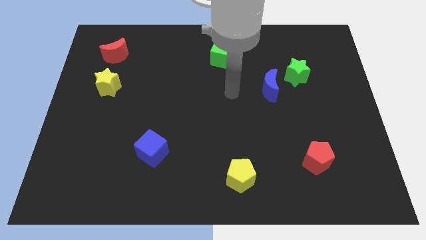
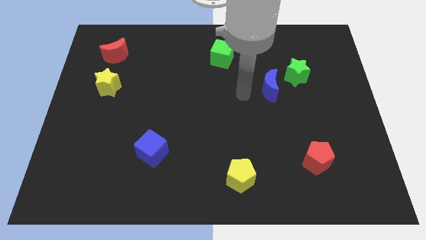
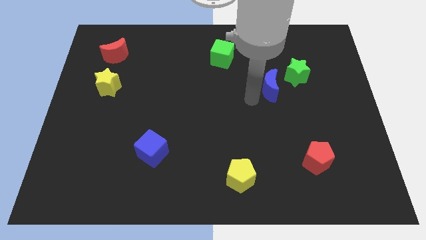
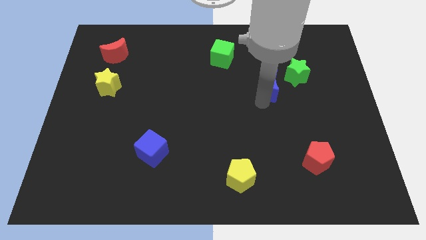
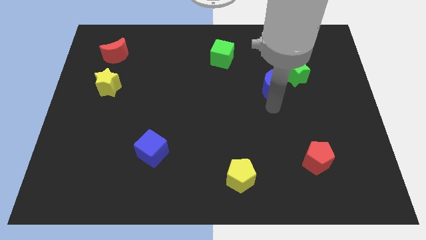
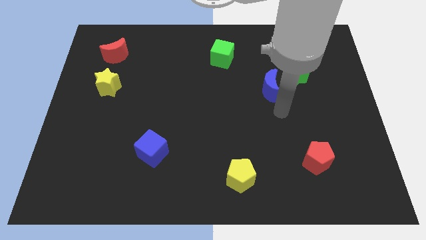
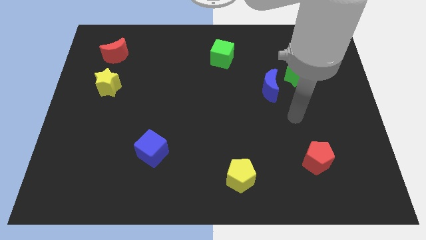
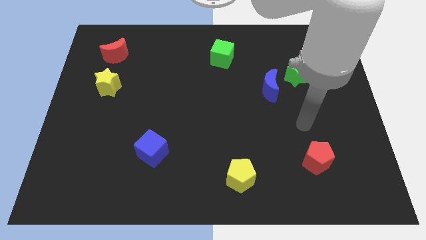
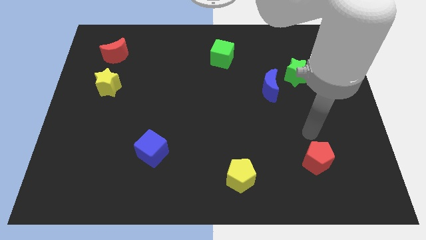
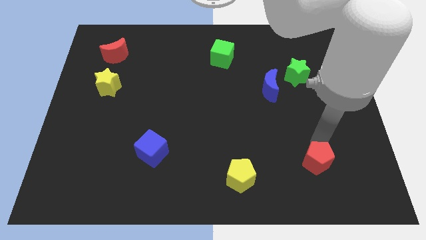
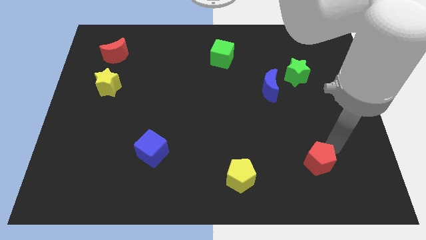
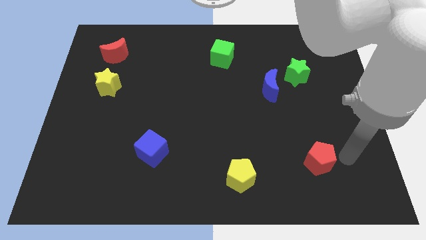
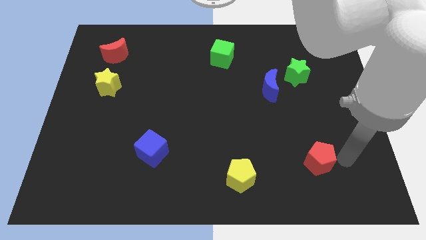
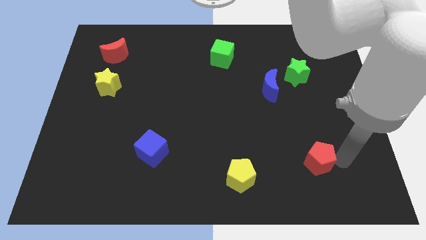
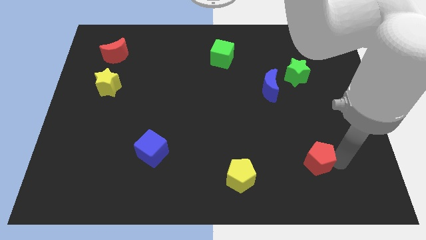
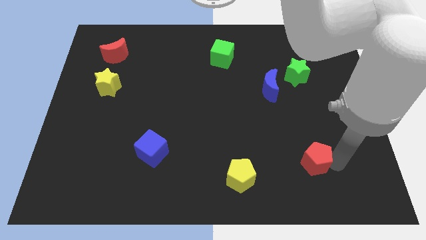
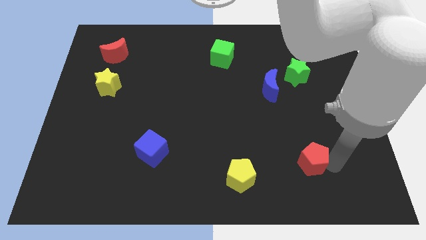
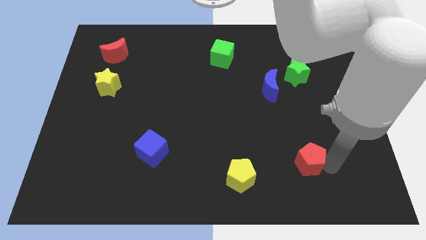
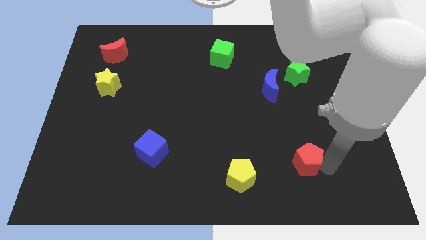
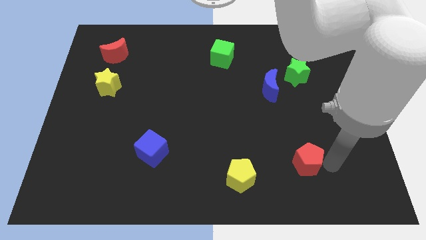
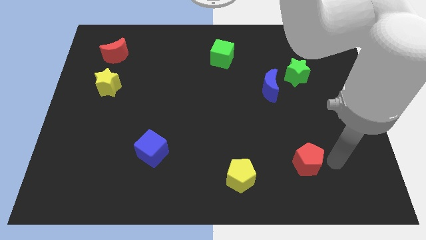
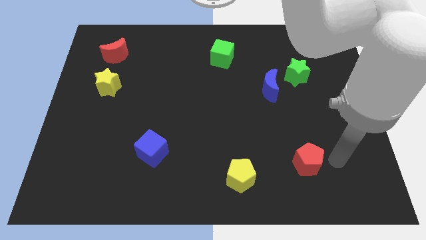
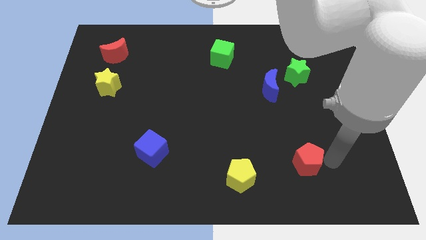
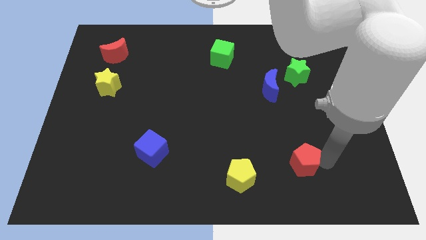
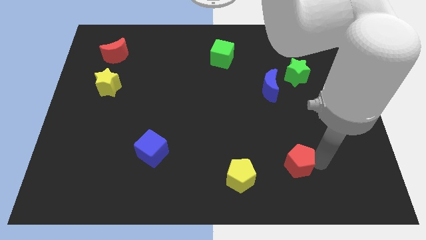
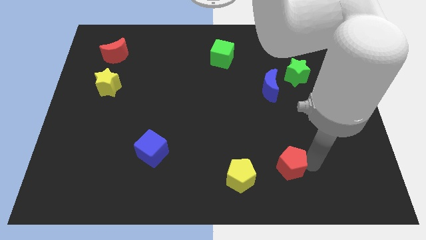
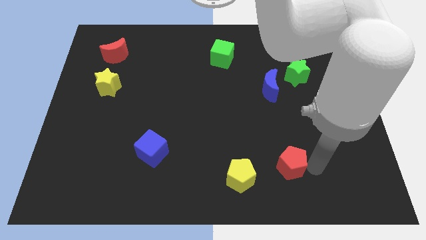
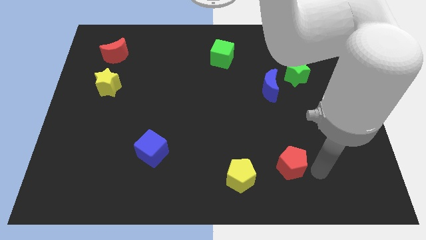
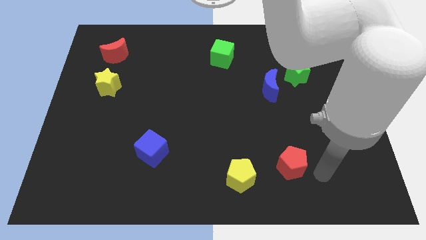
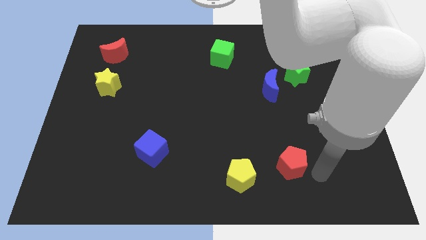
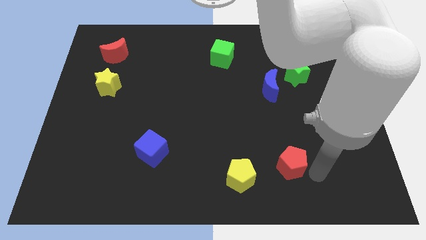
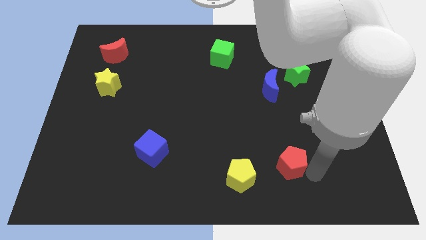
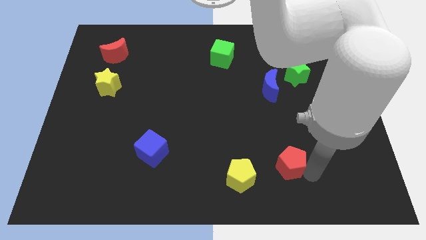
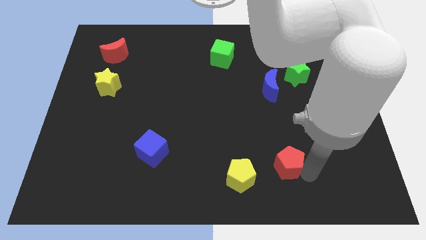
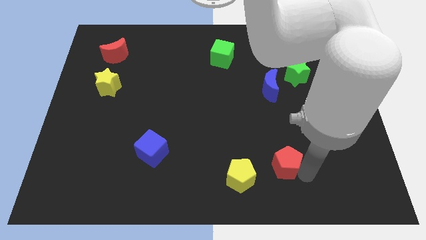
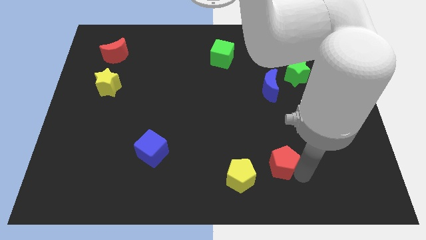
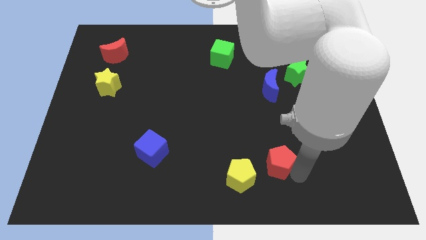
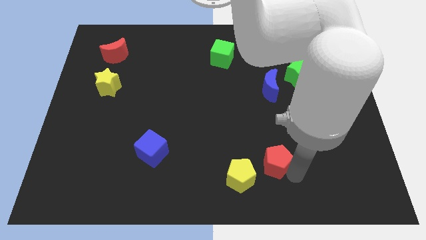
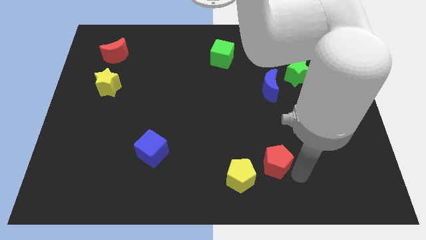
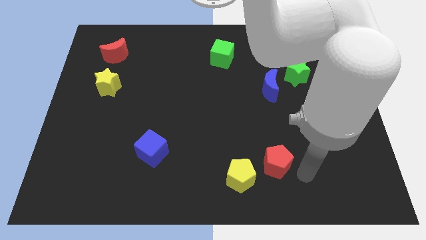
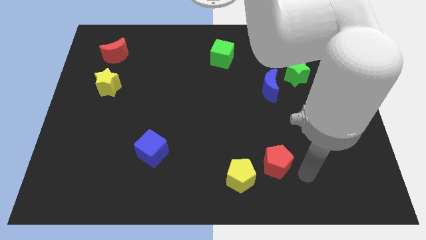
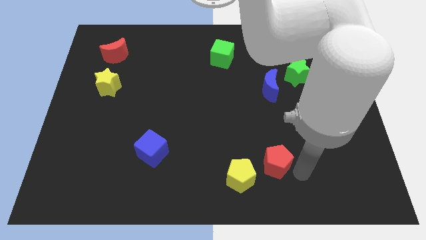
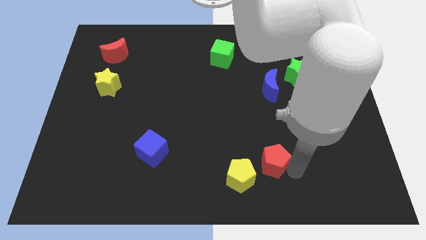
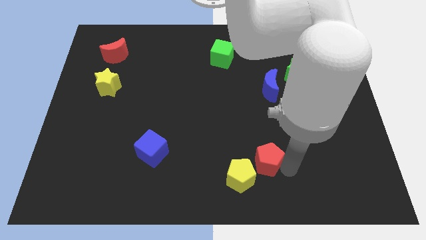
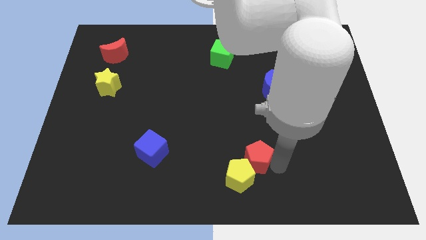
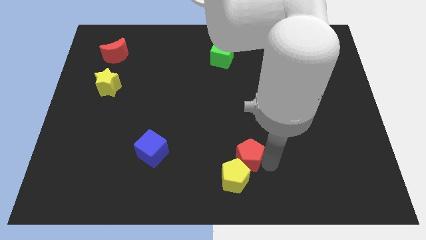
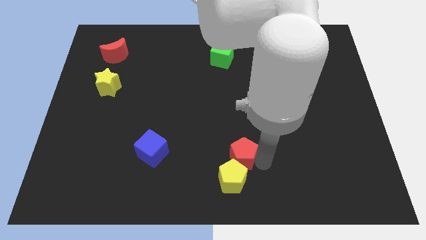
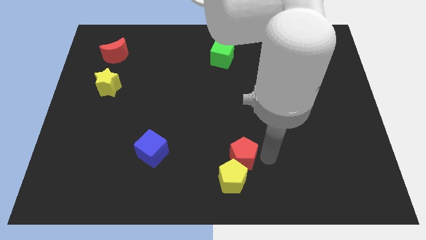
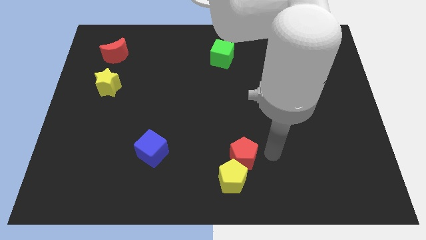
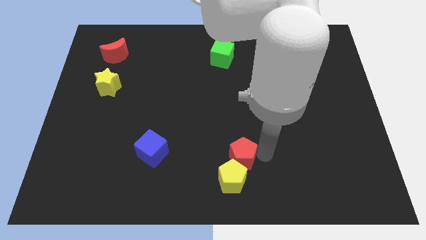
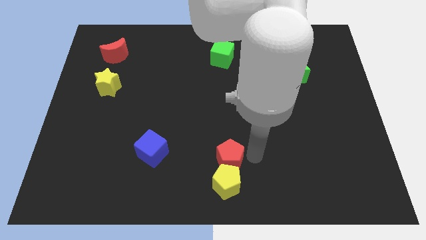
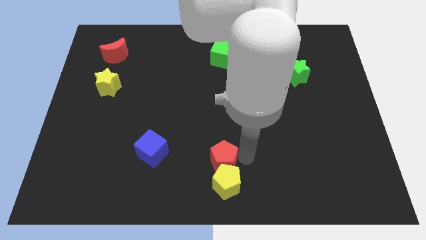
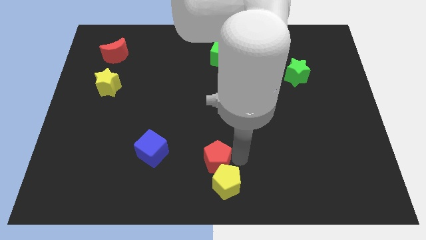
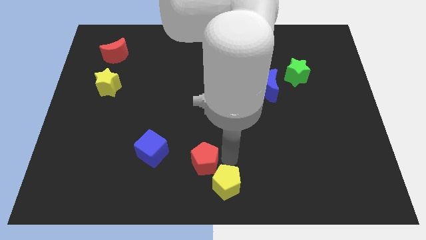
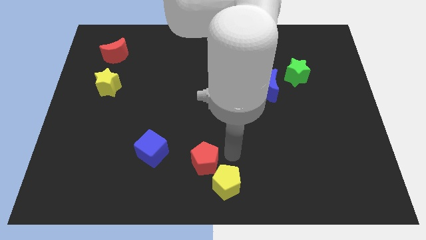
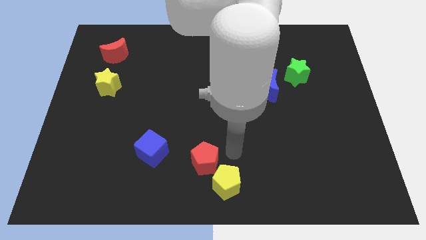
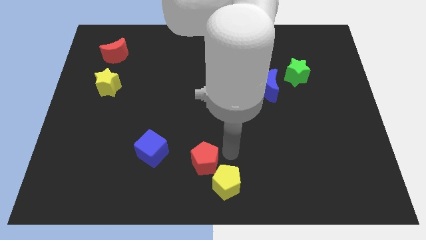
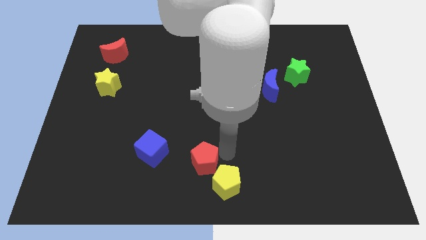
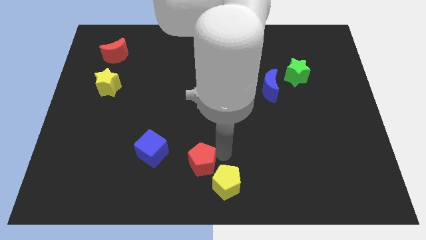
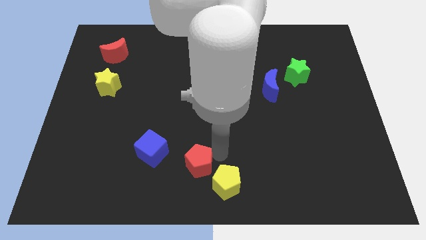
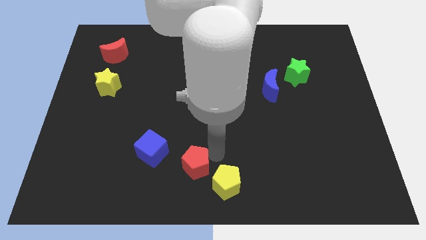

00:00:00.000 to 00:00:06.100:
put the red pentagon to the bottom right side of the blue cube

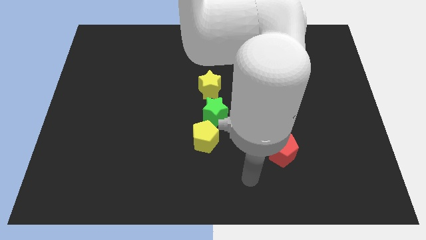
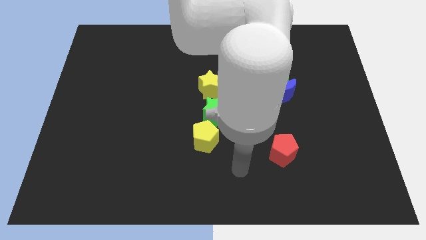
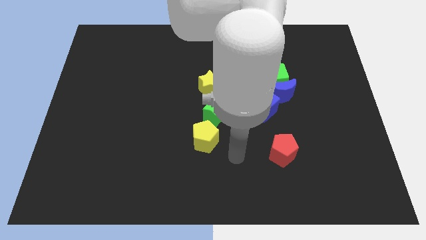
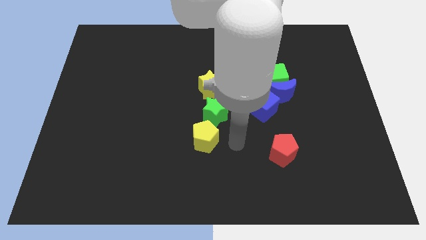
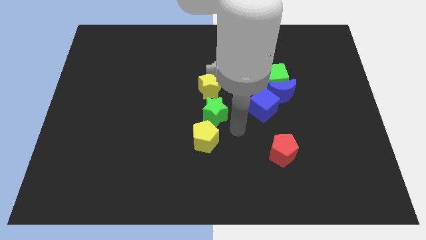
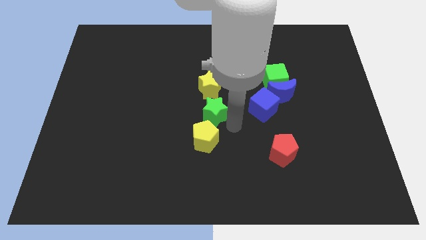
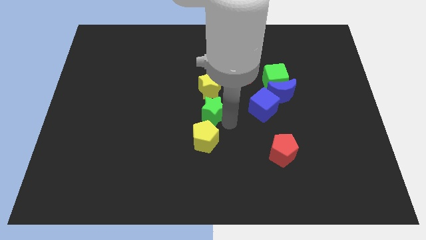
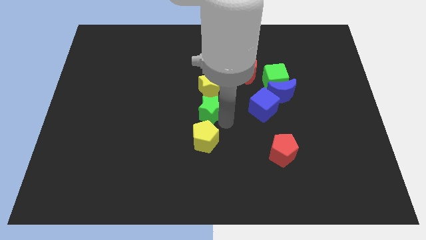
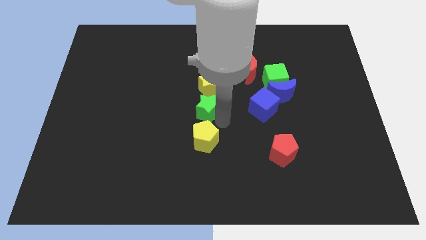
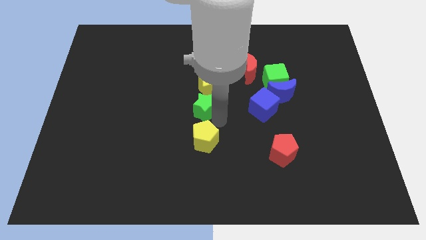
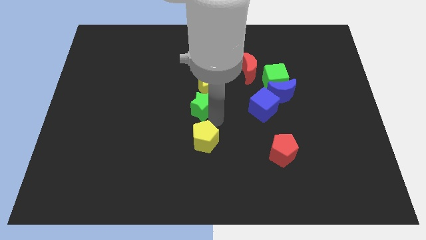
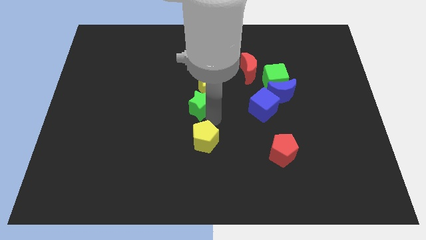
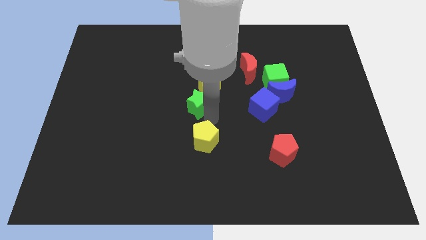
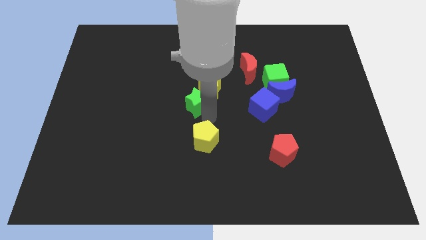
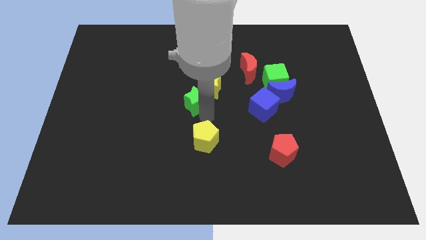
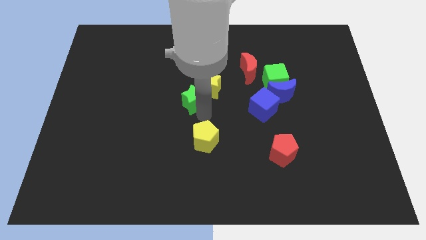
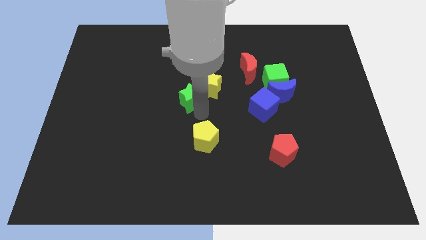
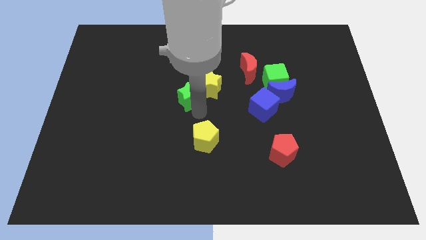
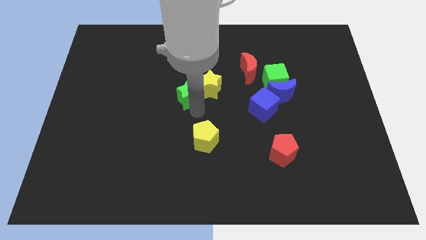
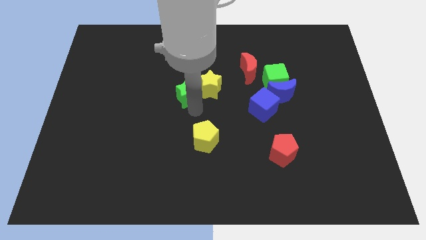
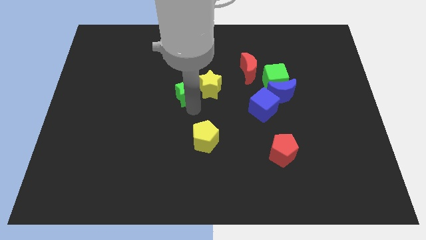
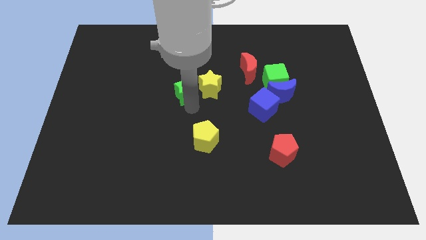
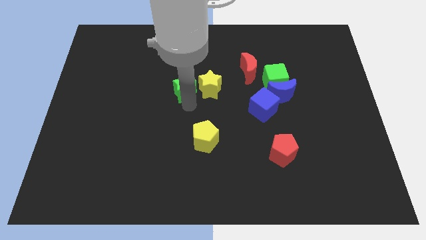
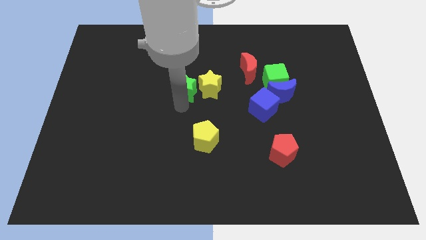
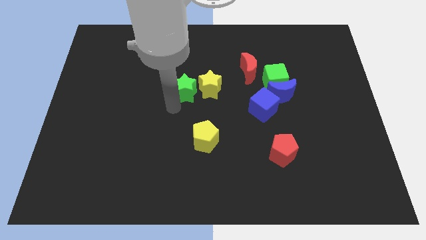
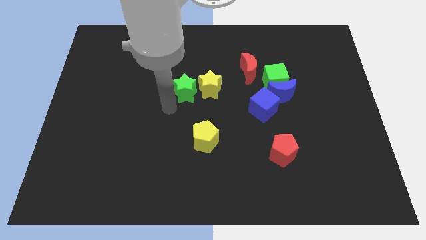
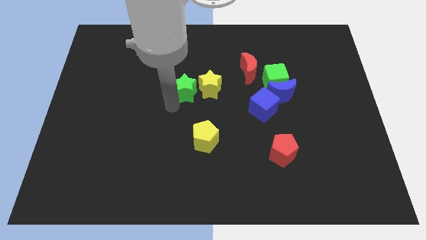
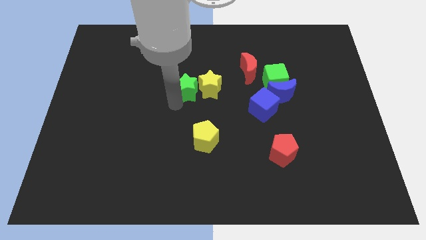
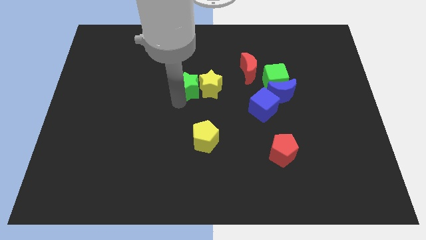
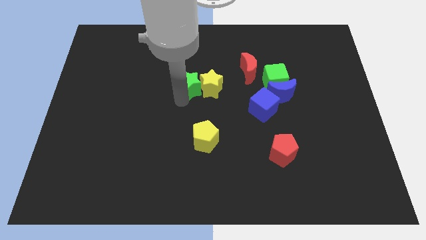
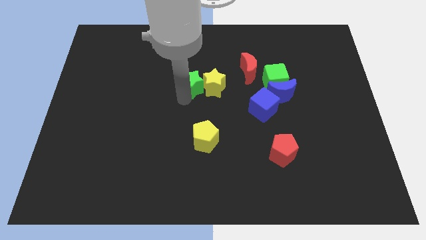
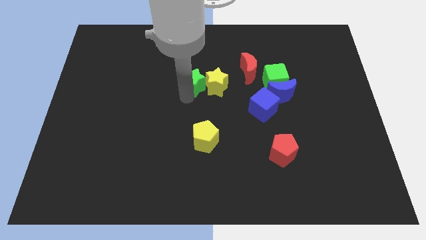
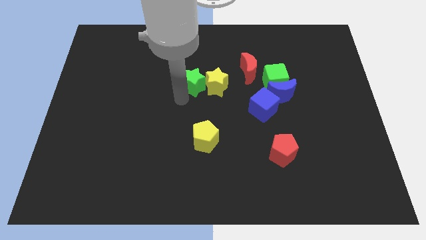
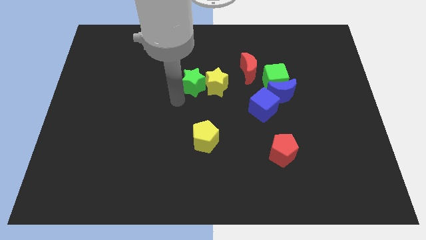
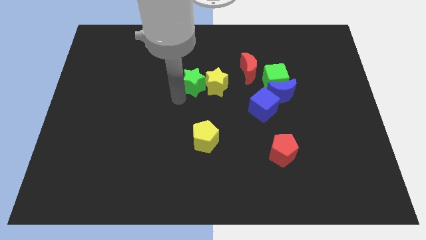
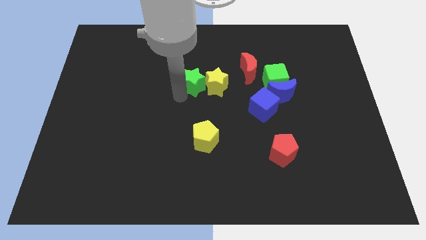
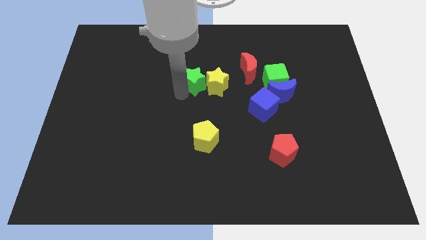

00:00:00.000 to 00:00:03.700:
move the green star to the left side of the red moon
